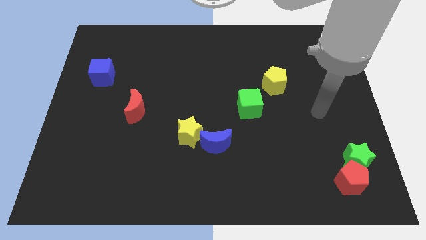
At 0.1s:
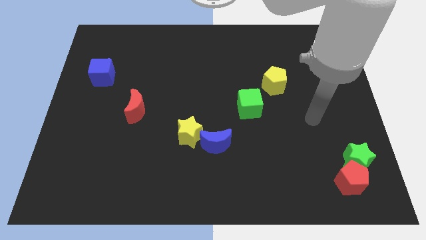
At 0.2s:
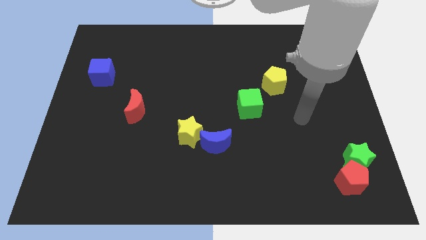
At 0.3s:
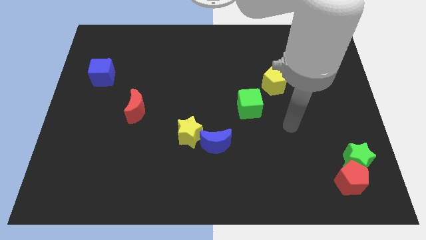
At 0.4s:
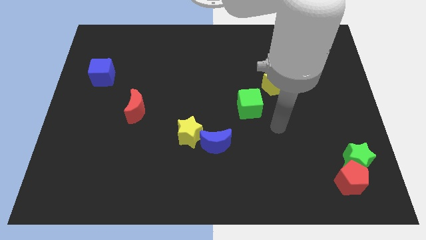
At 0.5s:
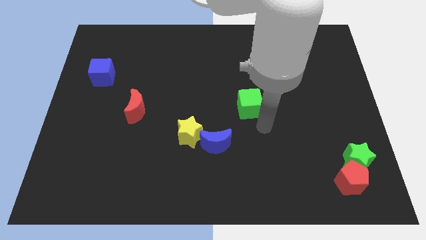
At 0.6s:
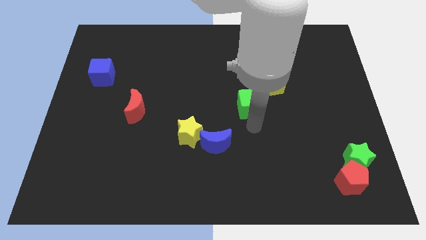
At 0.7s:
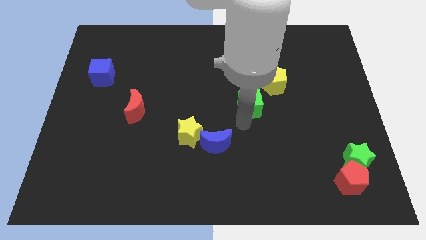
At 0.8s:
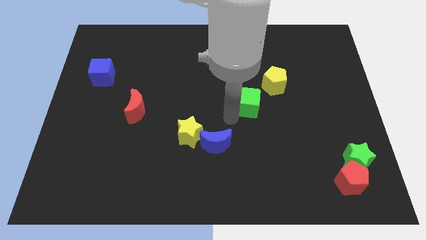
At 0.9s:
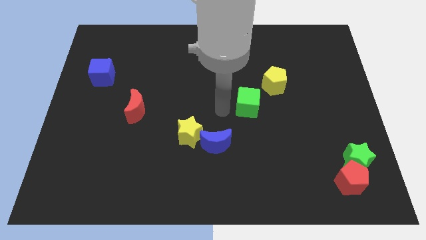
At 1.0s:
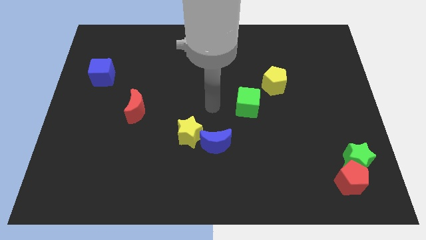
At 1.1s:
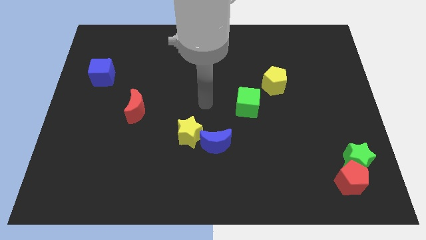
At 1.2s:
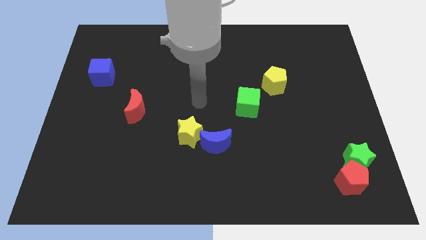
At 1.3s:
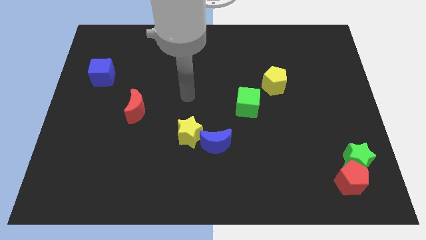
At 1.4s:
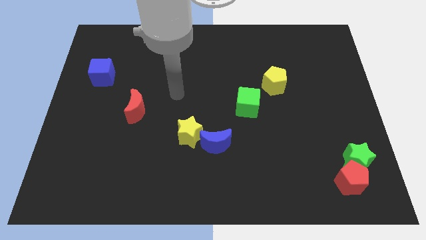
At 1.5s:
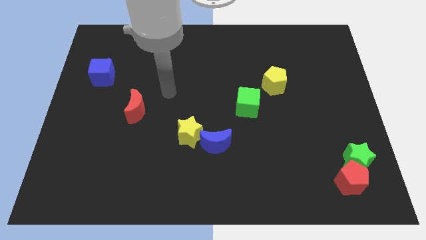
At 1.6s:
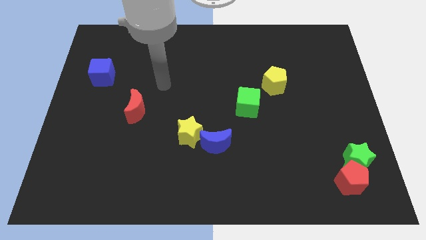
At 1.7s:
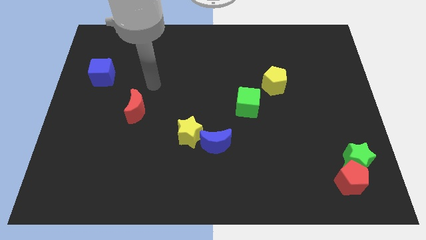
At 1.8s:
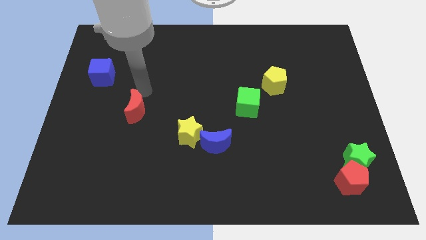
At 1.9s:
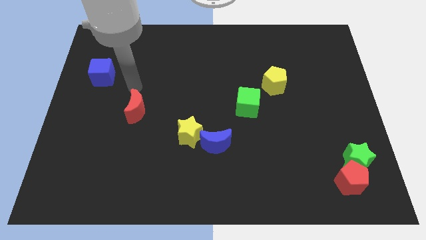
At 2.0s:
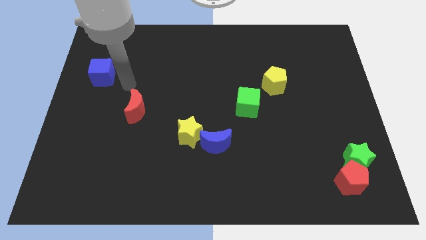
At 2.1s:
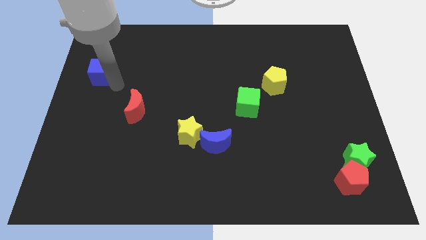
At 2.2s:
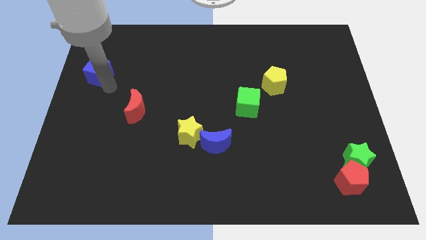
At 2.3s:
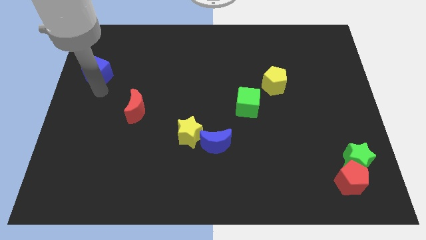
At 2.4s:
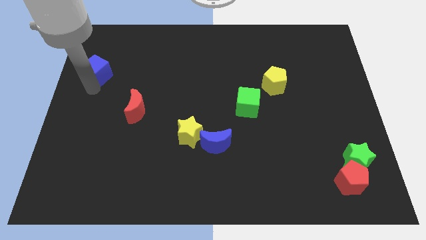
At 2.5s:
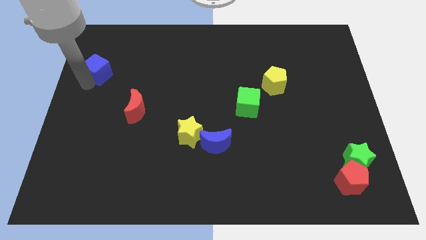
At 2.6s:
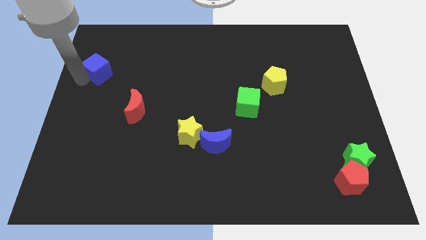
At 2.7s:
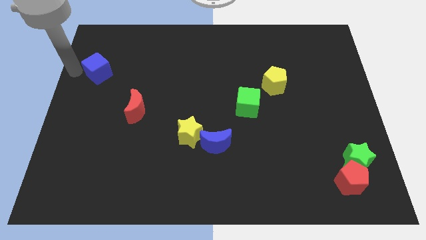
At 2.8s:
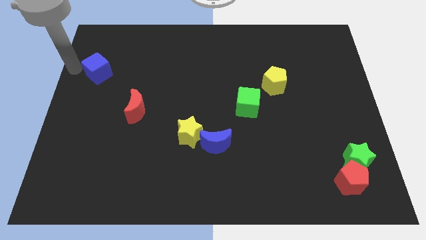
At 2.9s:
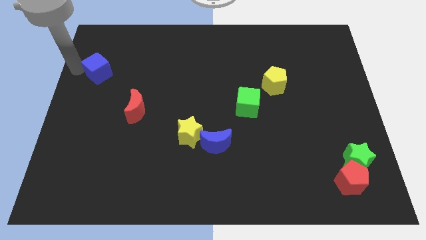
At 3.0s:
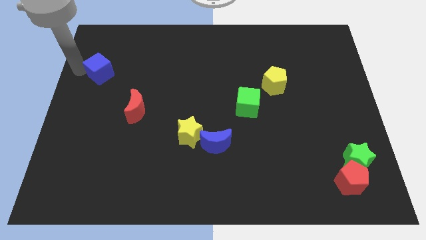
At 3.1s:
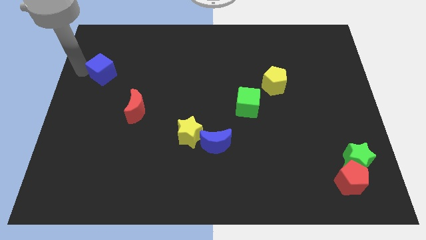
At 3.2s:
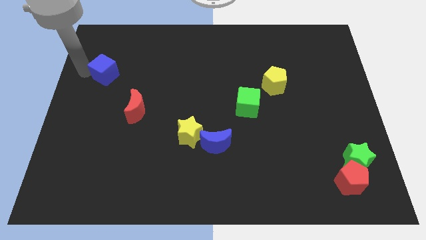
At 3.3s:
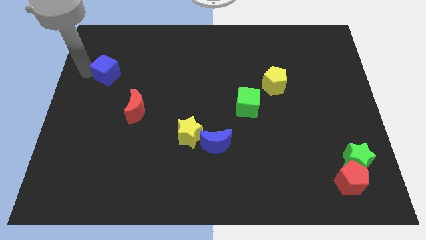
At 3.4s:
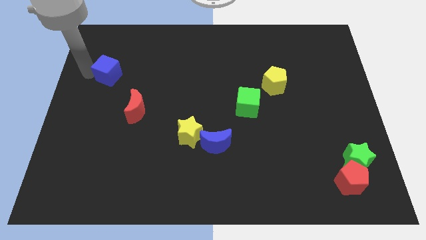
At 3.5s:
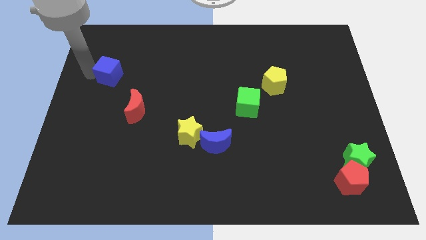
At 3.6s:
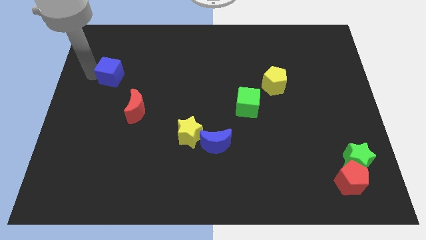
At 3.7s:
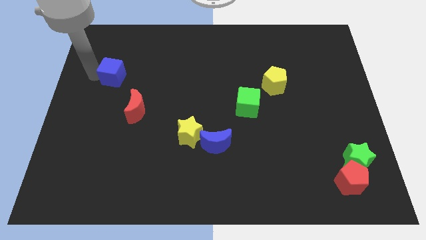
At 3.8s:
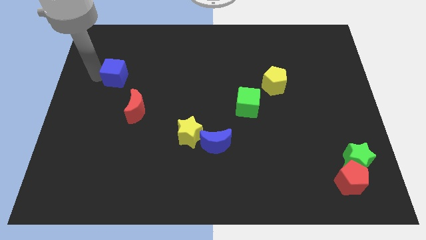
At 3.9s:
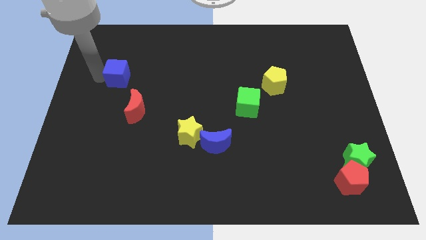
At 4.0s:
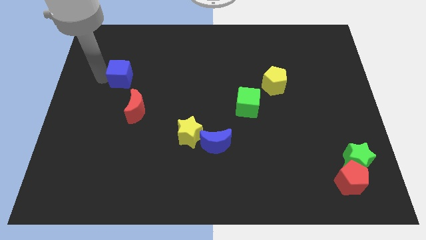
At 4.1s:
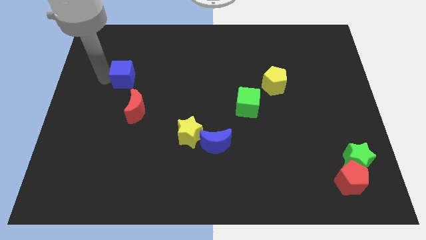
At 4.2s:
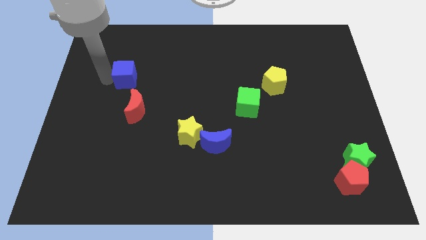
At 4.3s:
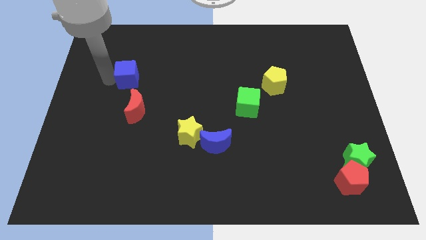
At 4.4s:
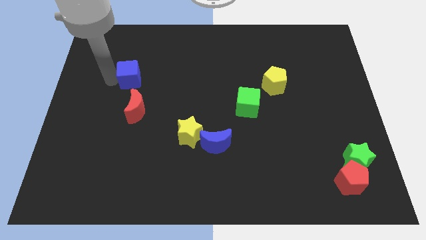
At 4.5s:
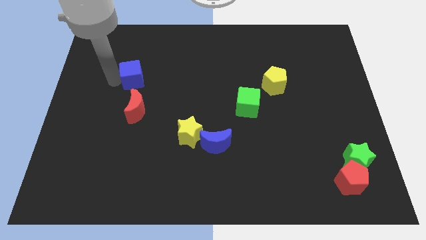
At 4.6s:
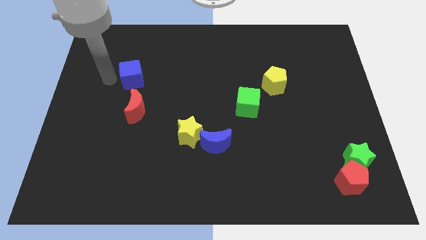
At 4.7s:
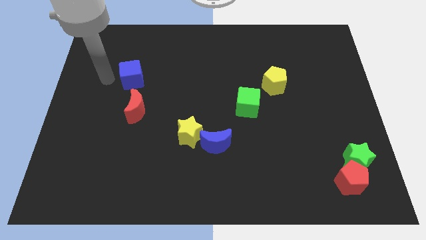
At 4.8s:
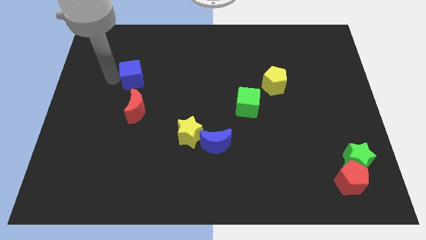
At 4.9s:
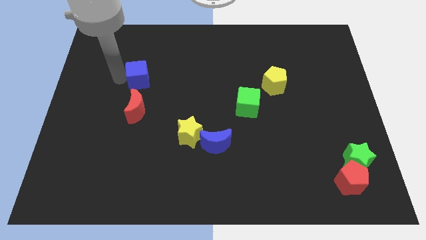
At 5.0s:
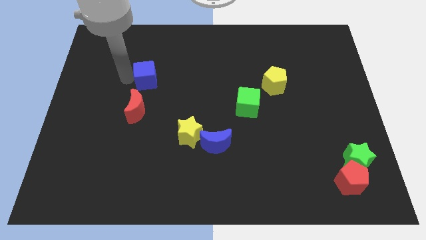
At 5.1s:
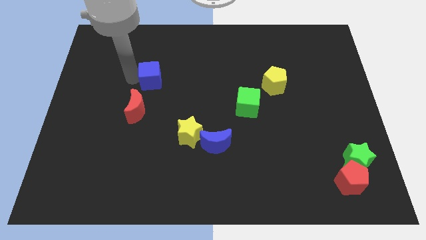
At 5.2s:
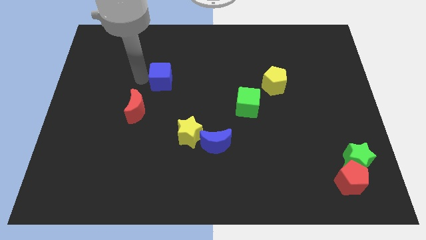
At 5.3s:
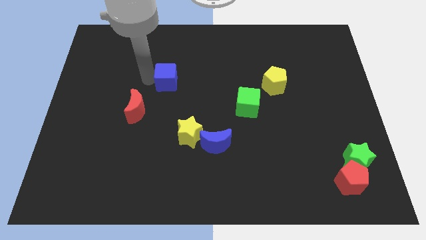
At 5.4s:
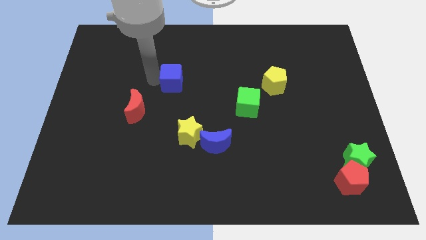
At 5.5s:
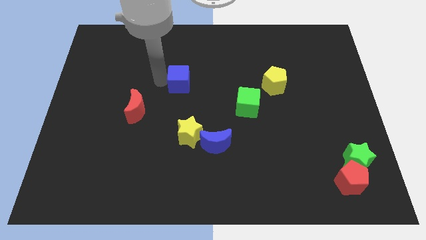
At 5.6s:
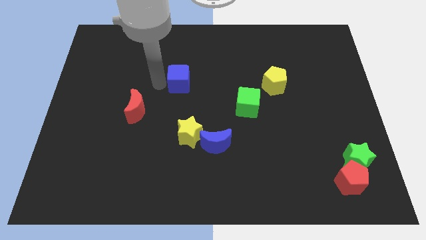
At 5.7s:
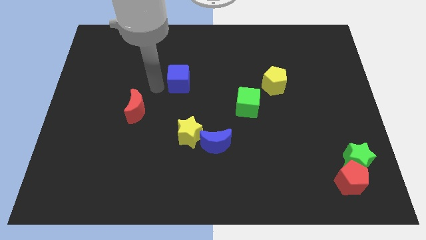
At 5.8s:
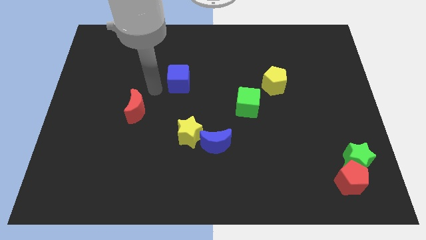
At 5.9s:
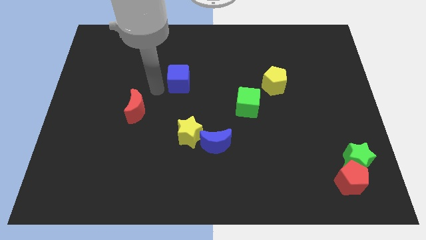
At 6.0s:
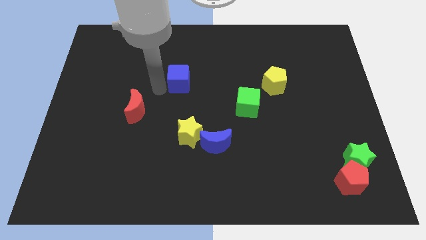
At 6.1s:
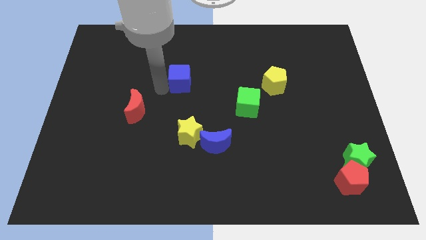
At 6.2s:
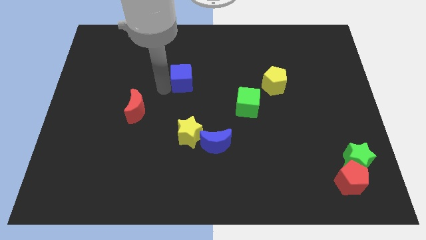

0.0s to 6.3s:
push the blue cube right

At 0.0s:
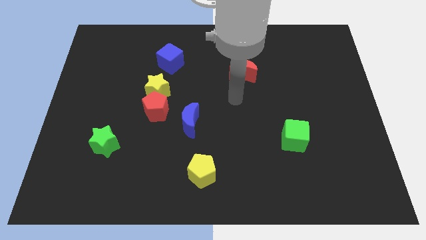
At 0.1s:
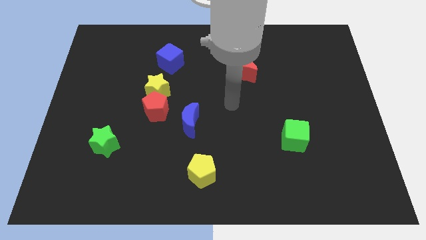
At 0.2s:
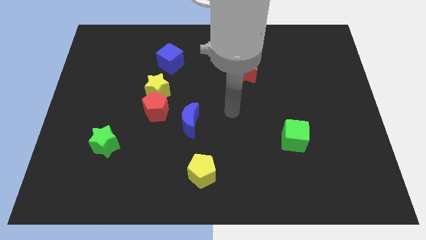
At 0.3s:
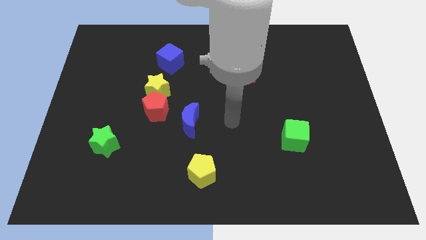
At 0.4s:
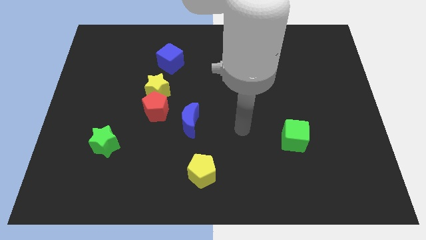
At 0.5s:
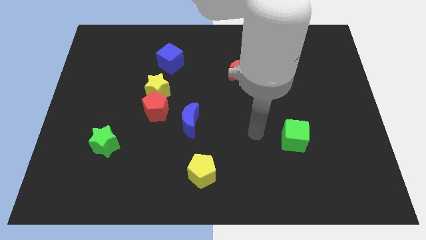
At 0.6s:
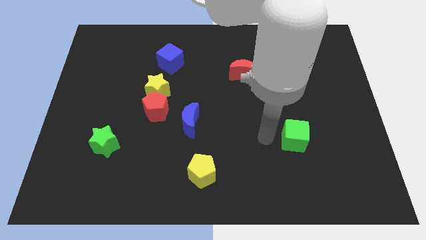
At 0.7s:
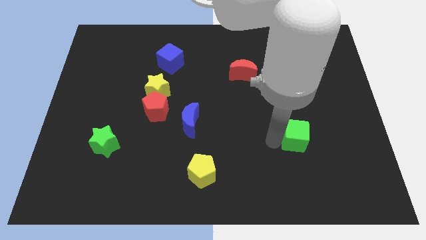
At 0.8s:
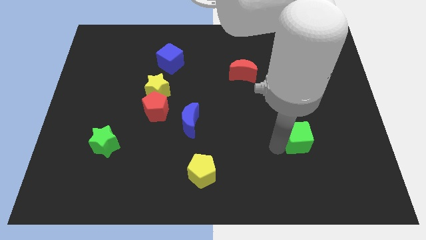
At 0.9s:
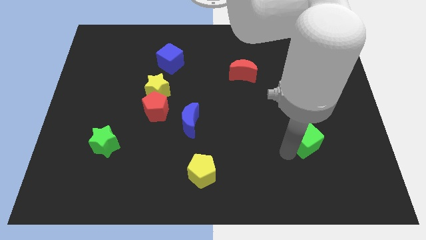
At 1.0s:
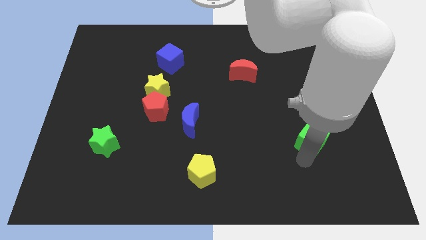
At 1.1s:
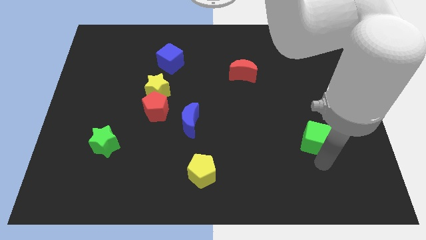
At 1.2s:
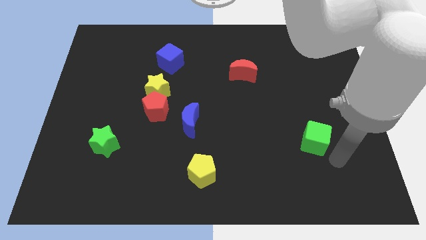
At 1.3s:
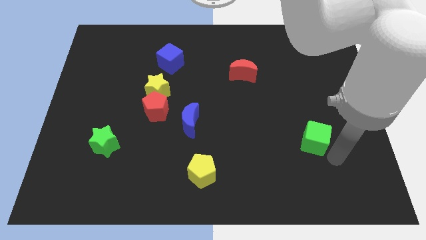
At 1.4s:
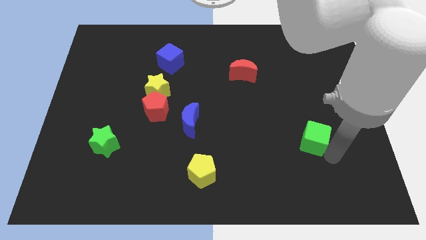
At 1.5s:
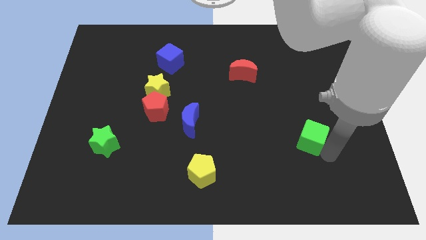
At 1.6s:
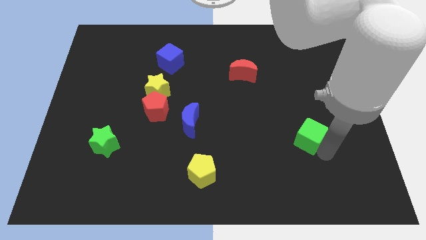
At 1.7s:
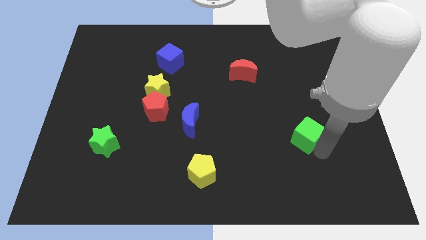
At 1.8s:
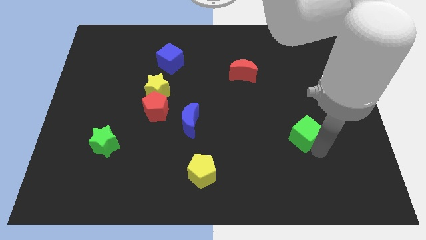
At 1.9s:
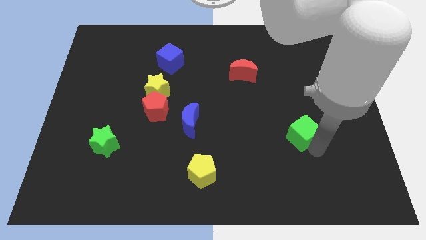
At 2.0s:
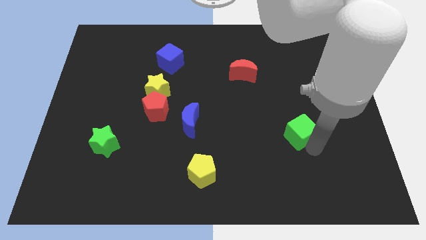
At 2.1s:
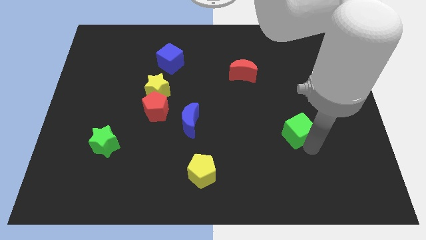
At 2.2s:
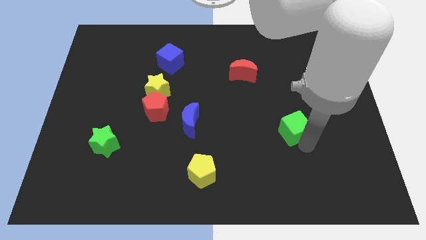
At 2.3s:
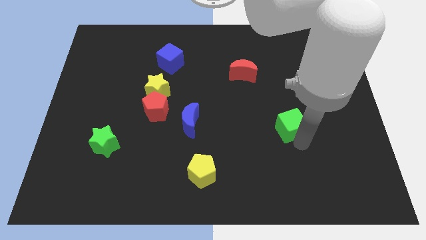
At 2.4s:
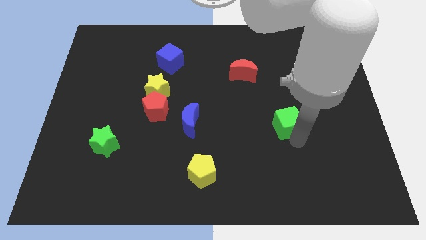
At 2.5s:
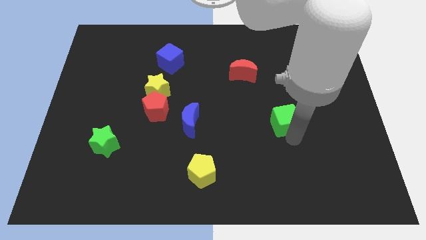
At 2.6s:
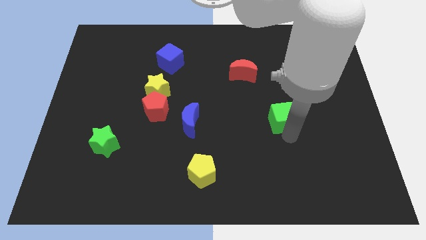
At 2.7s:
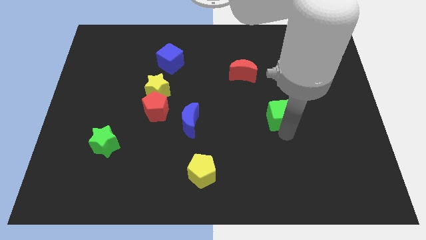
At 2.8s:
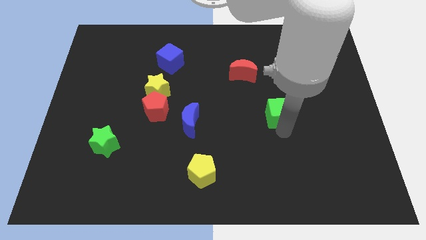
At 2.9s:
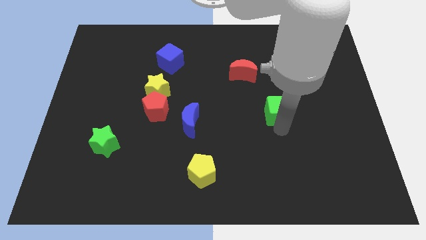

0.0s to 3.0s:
slightly move the green cube upwards
